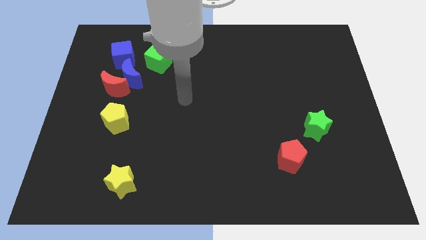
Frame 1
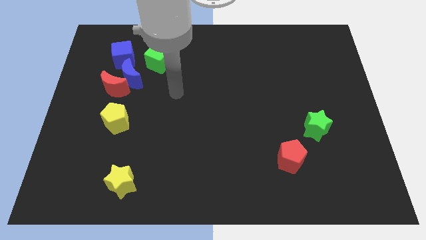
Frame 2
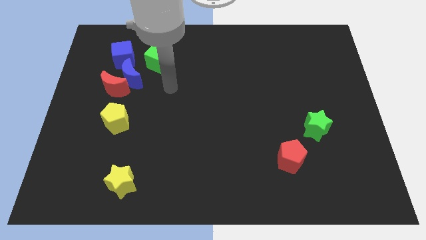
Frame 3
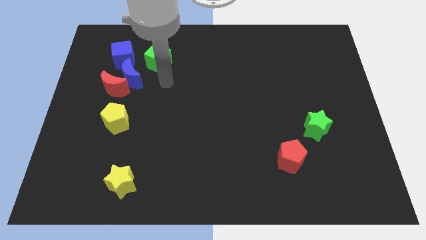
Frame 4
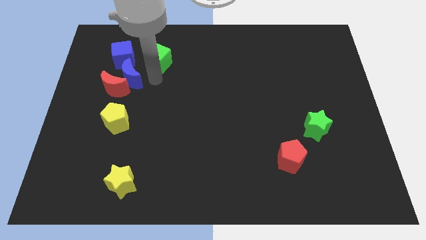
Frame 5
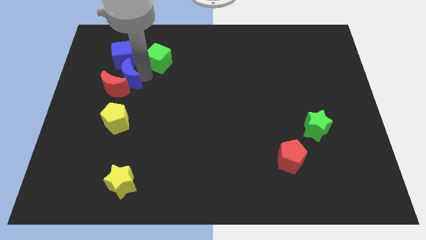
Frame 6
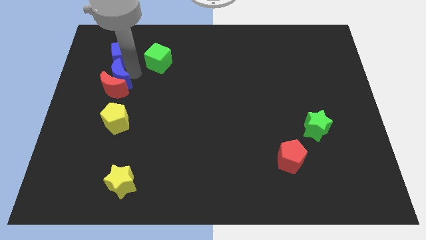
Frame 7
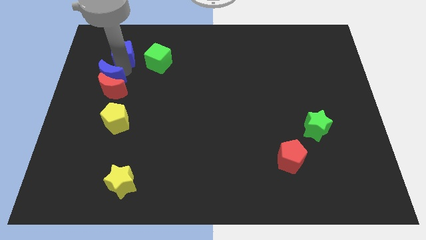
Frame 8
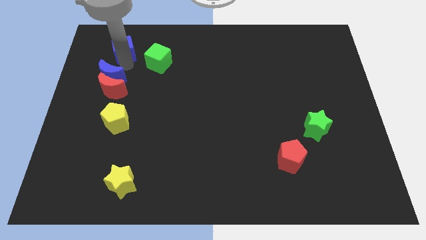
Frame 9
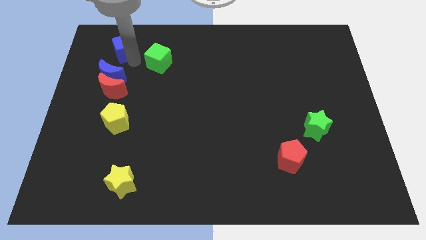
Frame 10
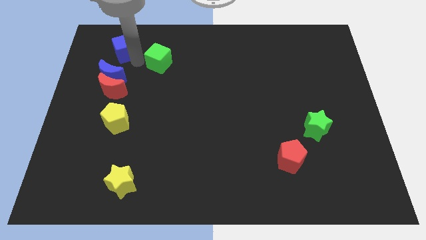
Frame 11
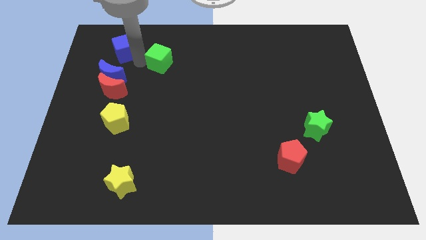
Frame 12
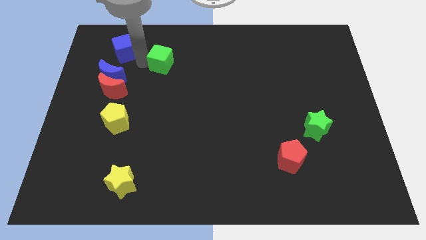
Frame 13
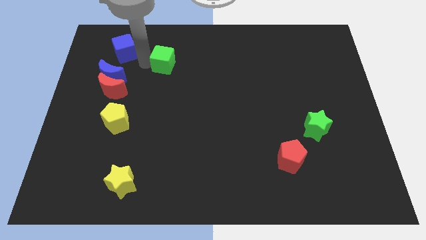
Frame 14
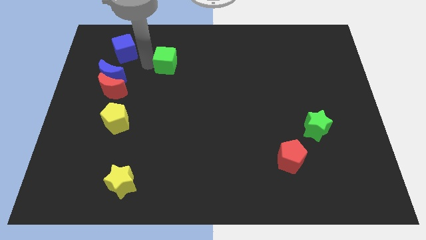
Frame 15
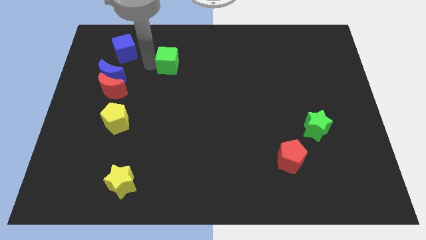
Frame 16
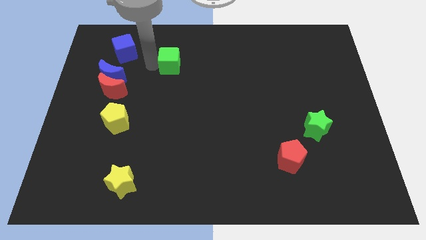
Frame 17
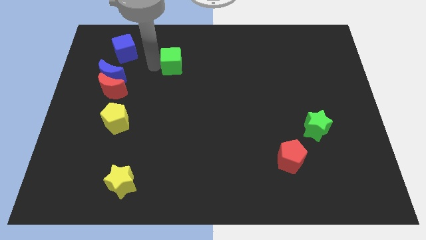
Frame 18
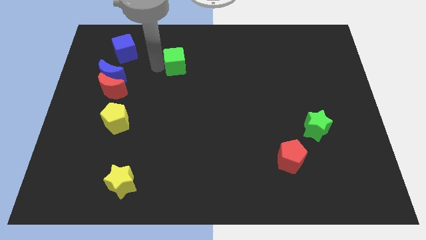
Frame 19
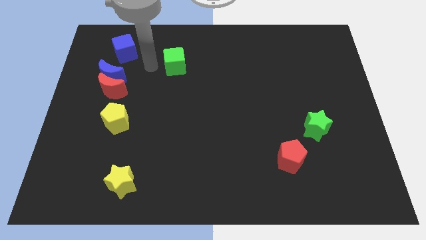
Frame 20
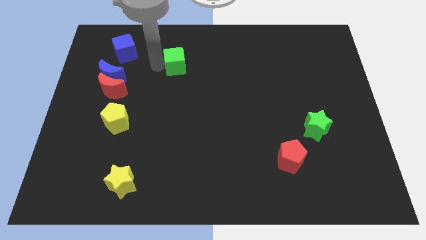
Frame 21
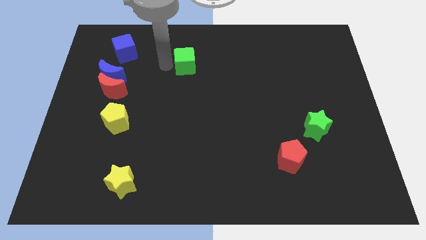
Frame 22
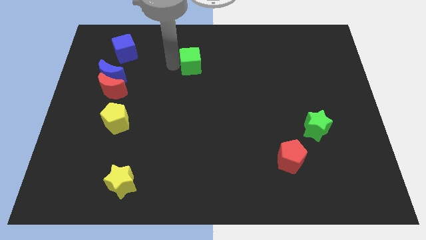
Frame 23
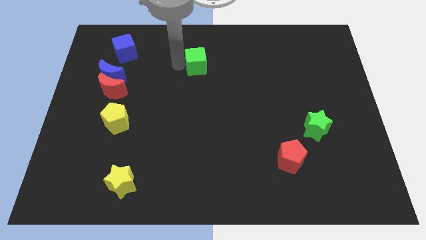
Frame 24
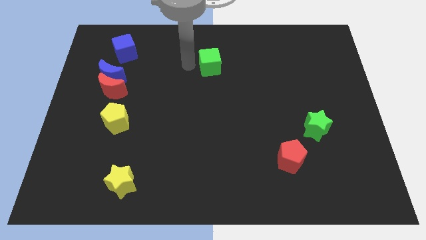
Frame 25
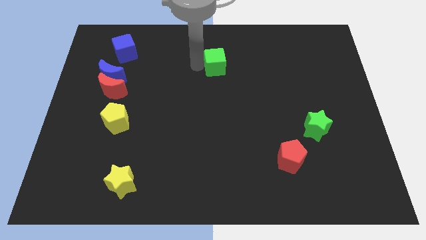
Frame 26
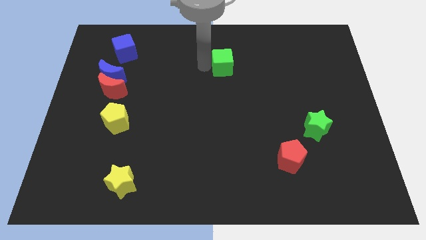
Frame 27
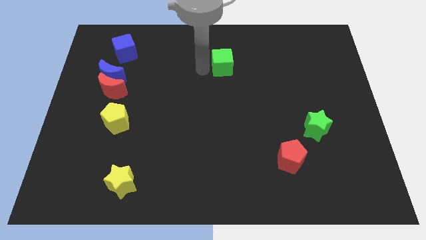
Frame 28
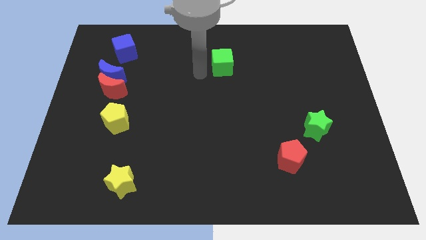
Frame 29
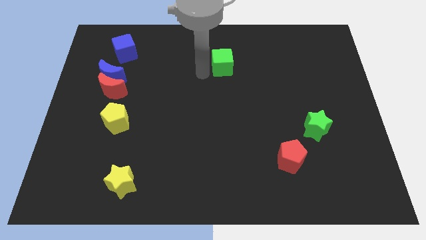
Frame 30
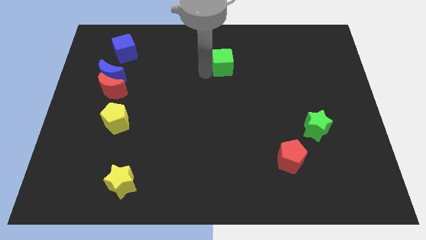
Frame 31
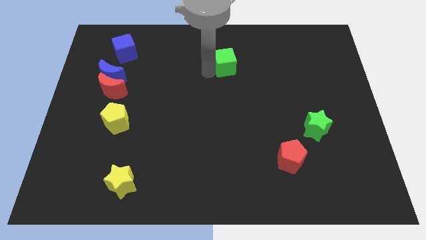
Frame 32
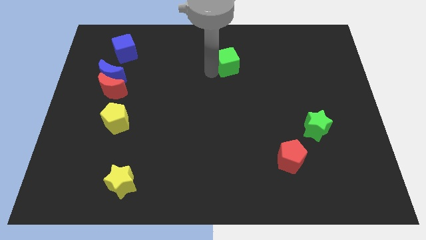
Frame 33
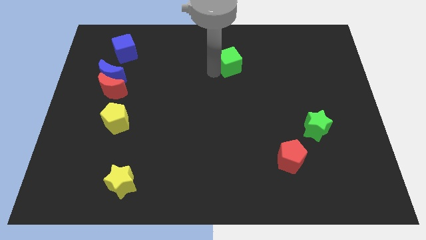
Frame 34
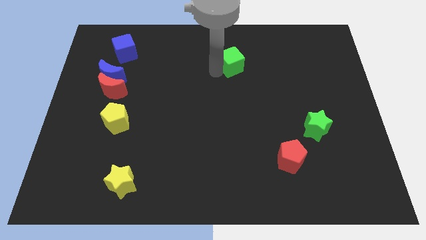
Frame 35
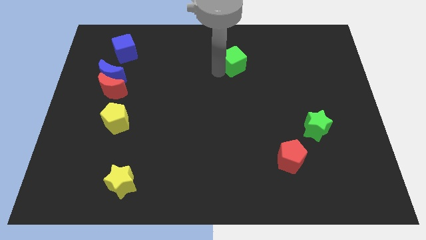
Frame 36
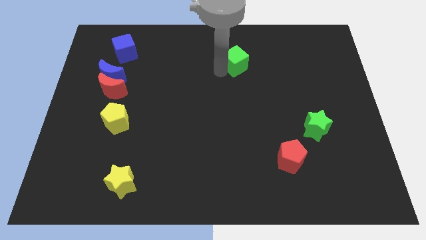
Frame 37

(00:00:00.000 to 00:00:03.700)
push the green cube to the right

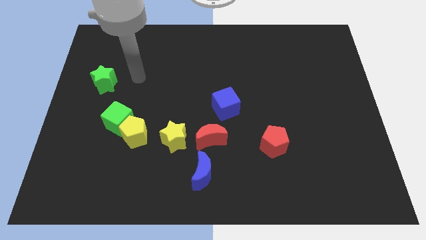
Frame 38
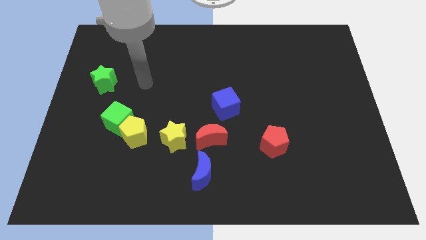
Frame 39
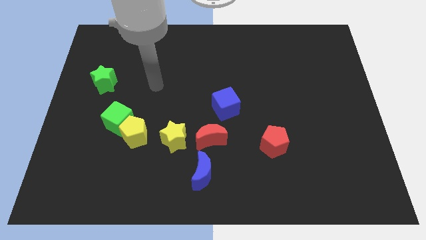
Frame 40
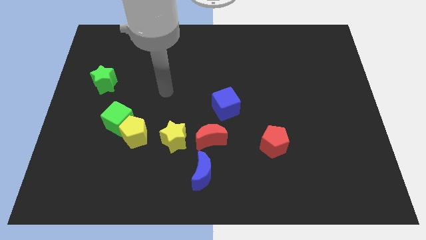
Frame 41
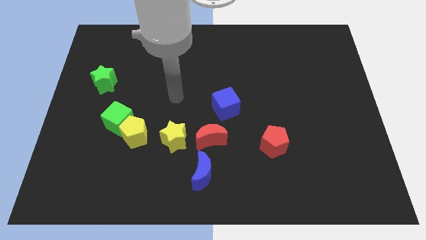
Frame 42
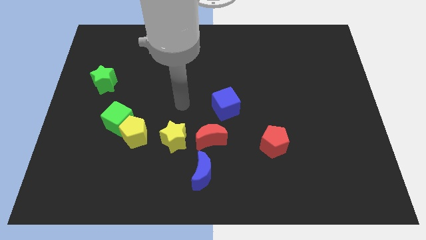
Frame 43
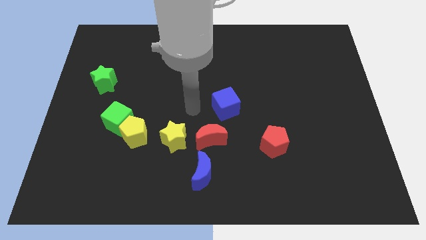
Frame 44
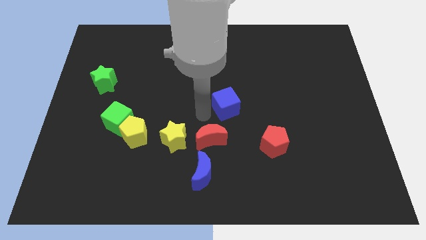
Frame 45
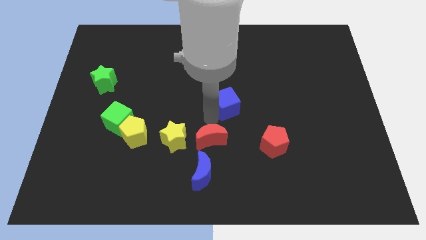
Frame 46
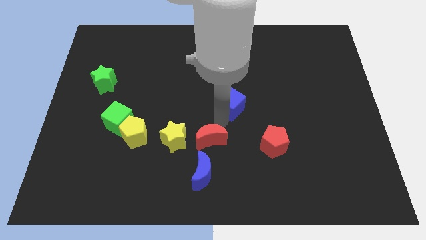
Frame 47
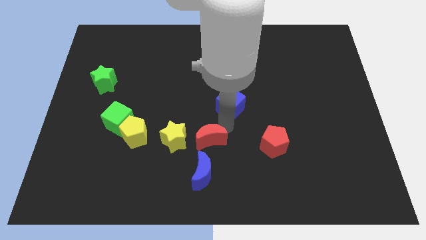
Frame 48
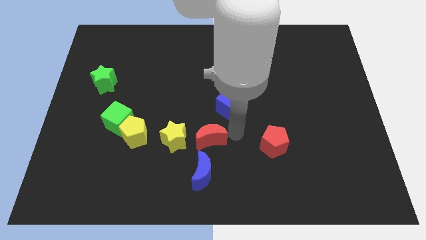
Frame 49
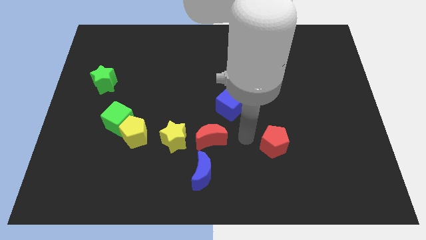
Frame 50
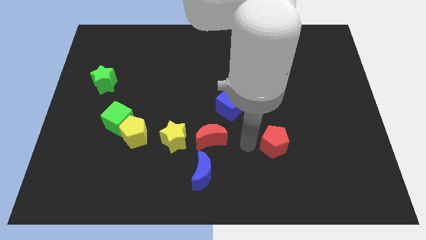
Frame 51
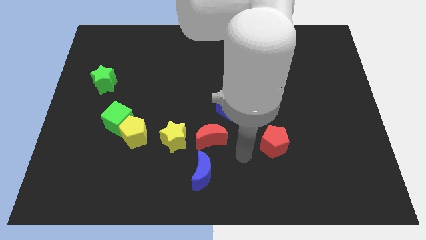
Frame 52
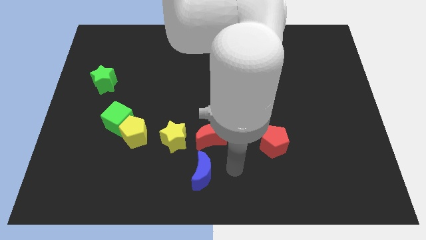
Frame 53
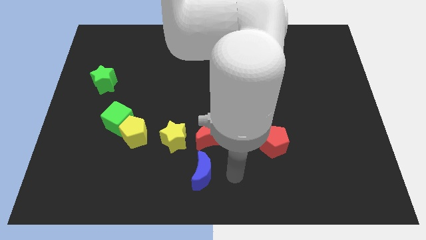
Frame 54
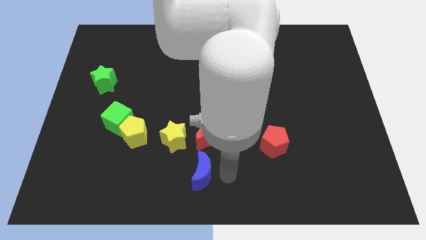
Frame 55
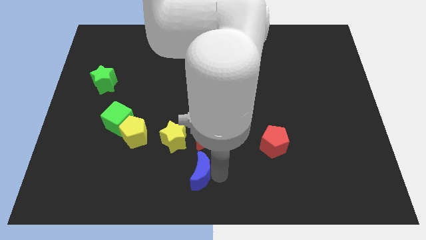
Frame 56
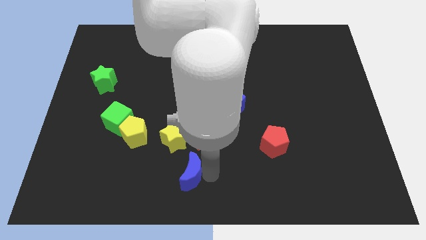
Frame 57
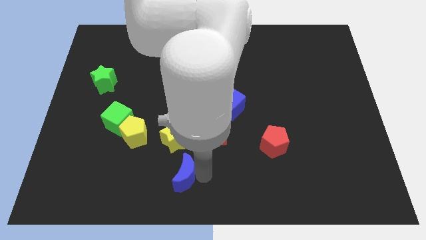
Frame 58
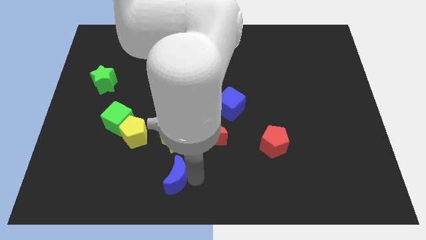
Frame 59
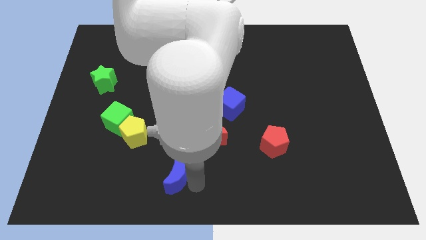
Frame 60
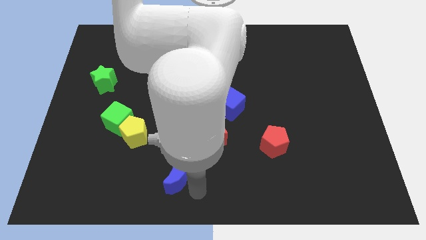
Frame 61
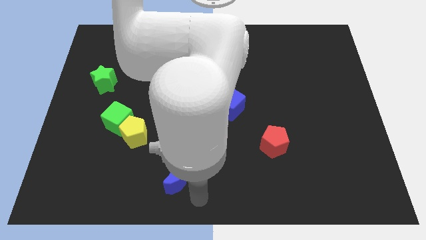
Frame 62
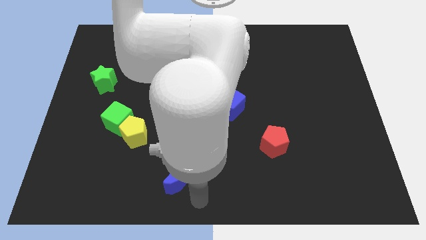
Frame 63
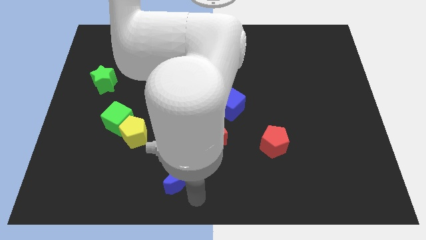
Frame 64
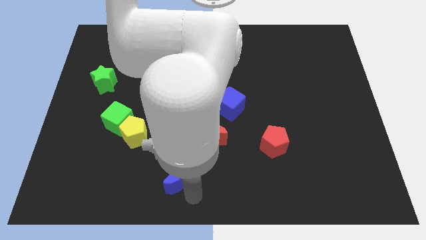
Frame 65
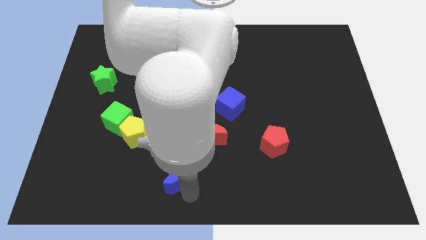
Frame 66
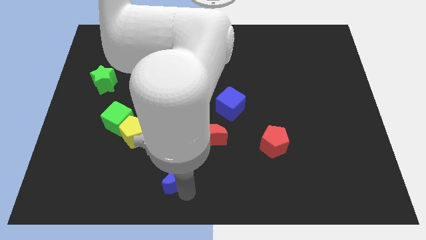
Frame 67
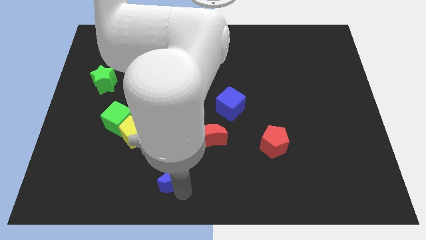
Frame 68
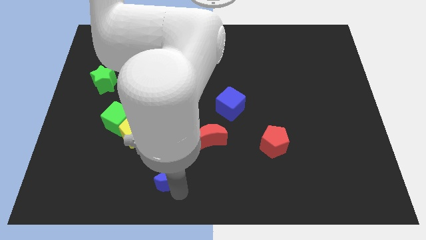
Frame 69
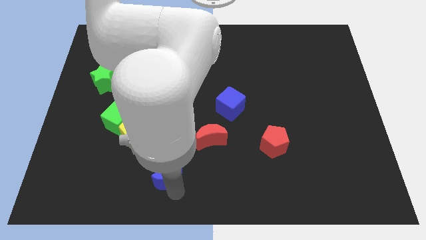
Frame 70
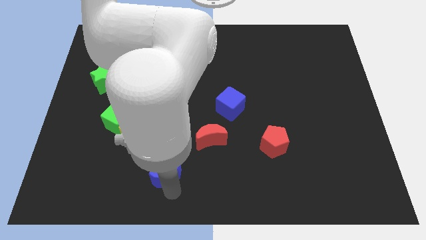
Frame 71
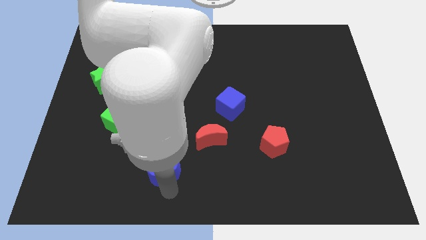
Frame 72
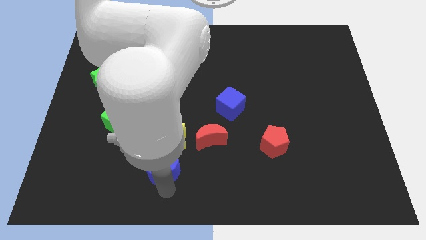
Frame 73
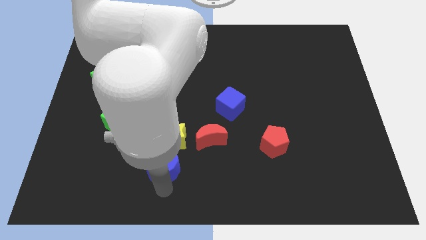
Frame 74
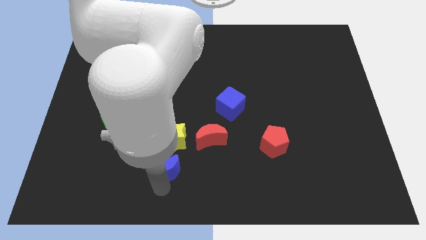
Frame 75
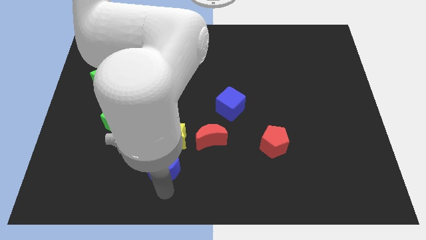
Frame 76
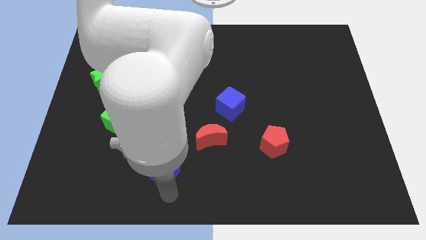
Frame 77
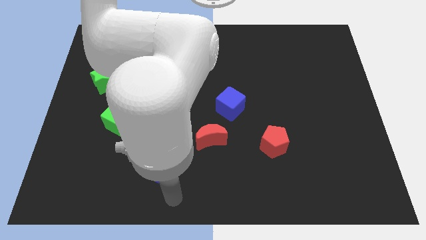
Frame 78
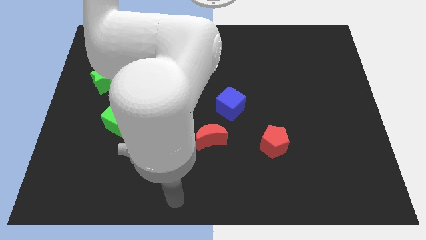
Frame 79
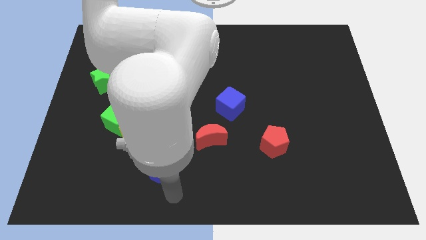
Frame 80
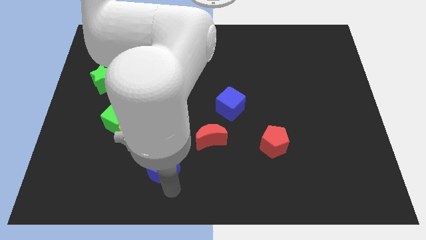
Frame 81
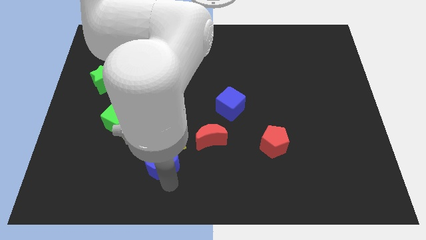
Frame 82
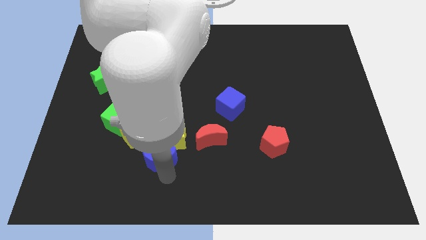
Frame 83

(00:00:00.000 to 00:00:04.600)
slightly slide the blue moon upwards and to the left diagonally
